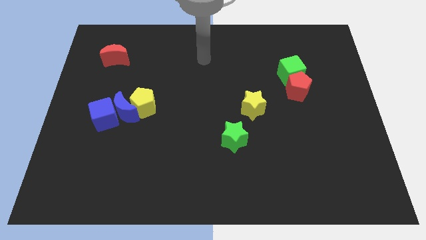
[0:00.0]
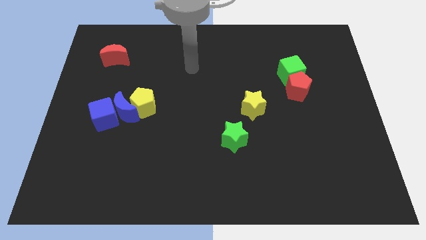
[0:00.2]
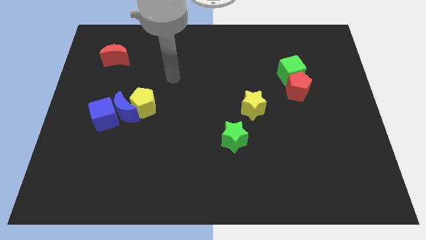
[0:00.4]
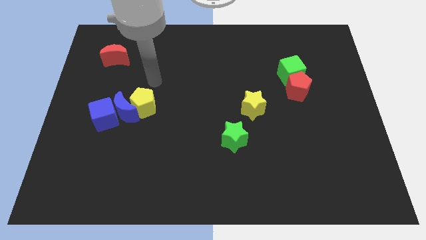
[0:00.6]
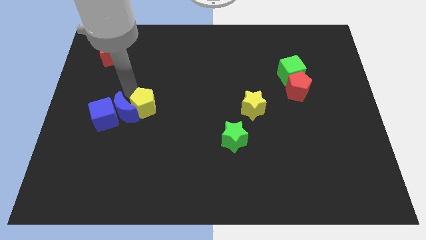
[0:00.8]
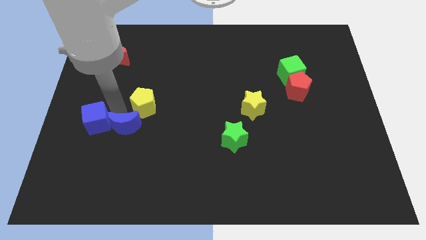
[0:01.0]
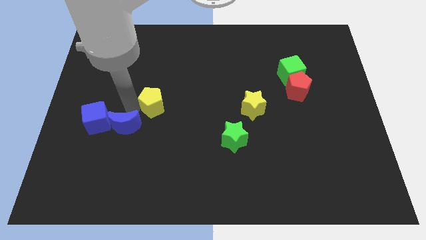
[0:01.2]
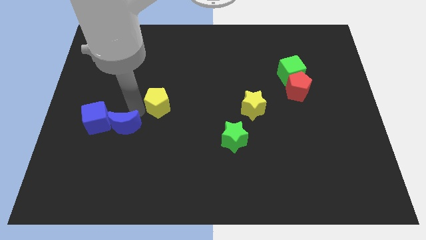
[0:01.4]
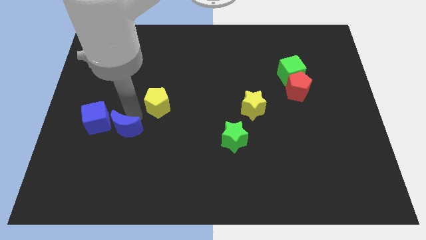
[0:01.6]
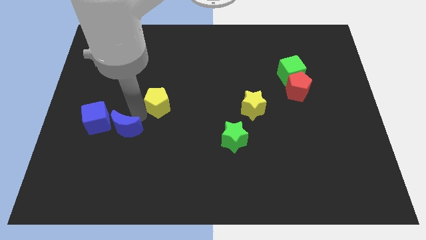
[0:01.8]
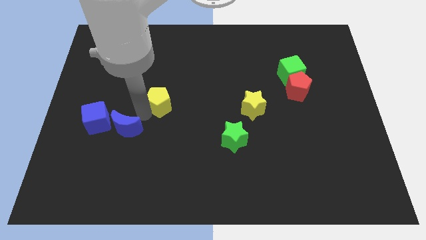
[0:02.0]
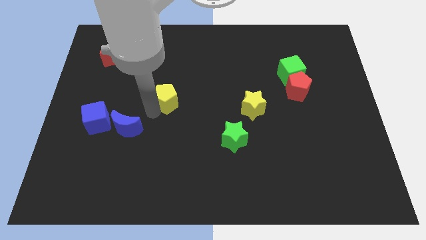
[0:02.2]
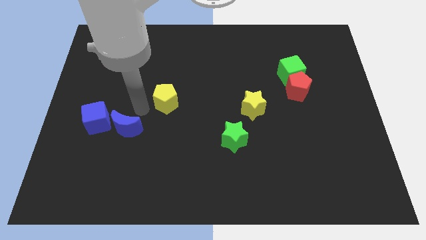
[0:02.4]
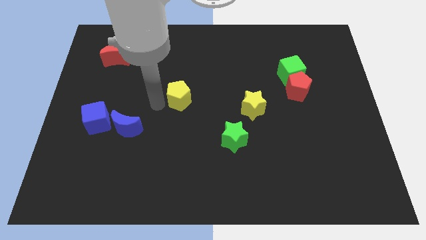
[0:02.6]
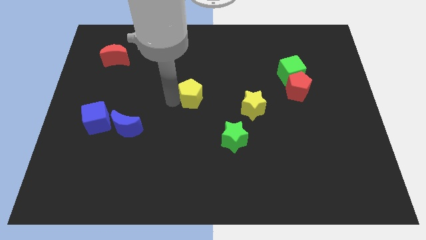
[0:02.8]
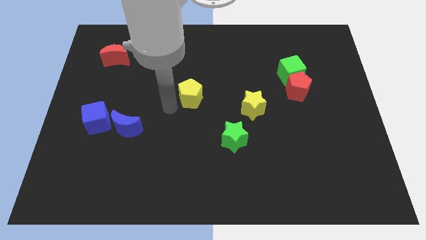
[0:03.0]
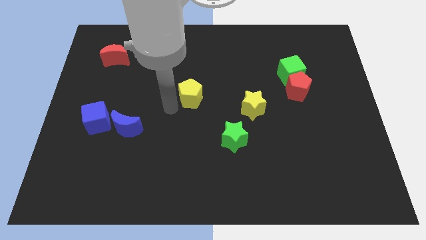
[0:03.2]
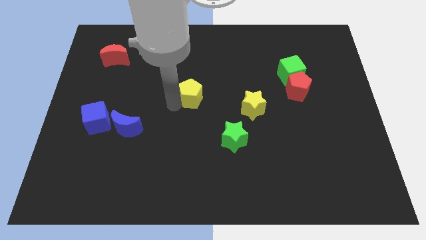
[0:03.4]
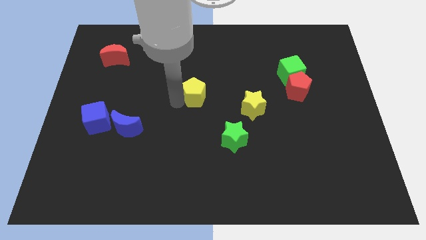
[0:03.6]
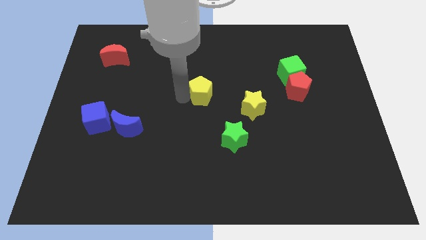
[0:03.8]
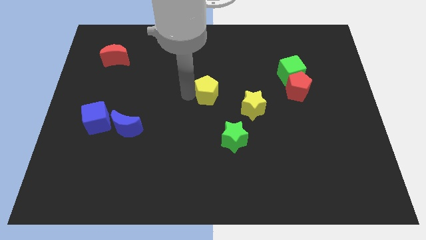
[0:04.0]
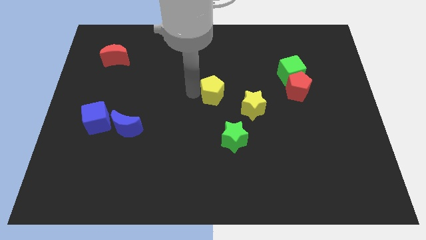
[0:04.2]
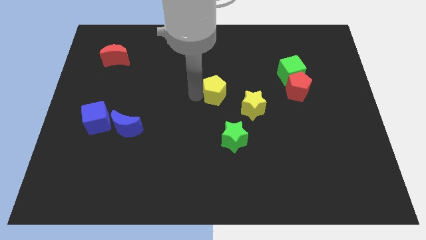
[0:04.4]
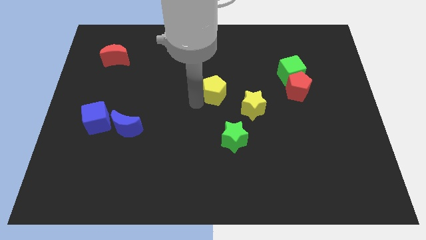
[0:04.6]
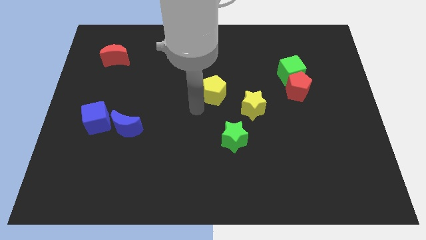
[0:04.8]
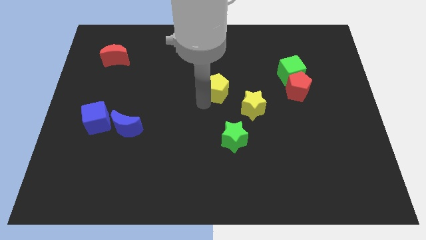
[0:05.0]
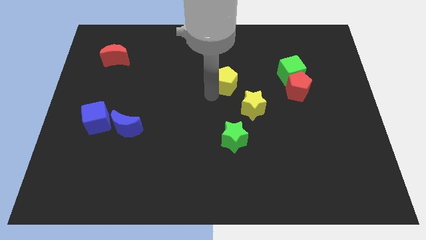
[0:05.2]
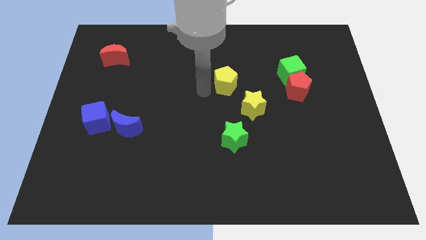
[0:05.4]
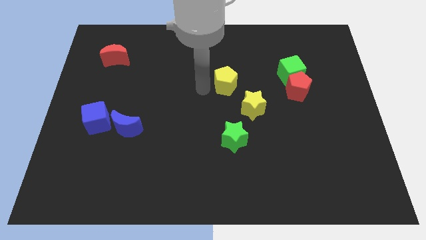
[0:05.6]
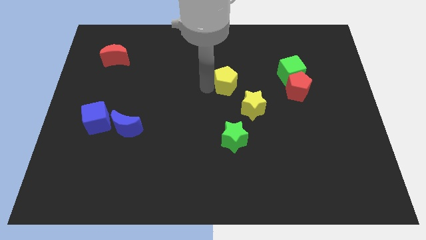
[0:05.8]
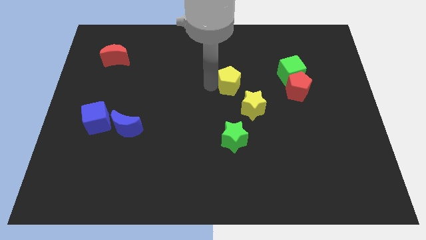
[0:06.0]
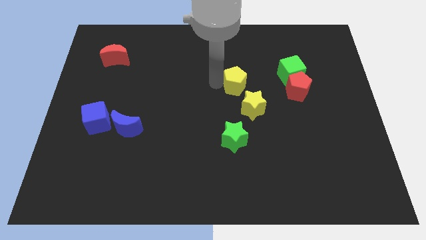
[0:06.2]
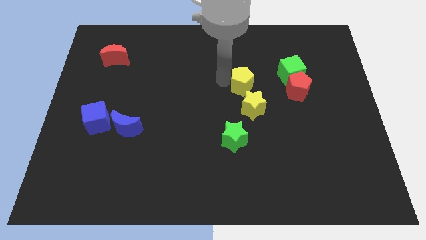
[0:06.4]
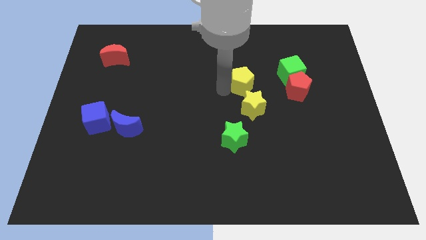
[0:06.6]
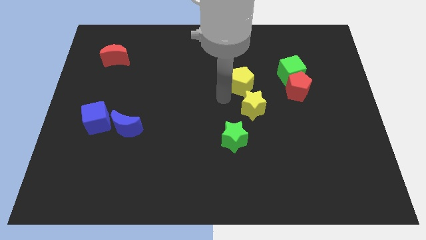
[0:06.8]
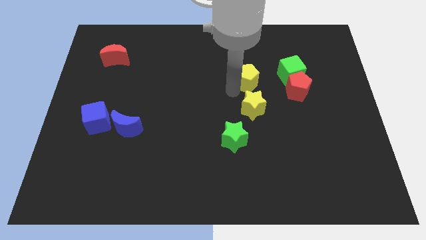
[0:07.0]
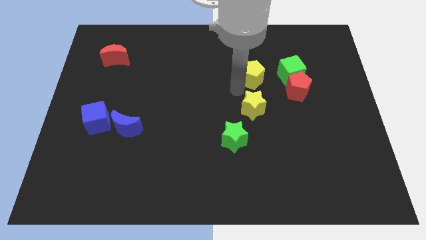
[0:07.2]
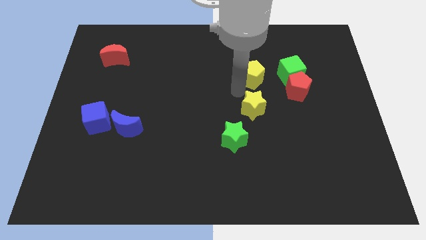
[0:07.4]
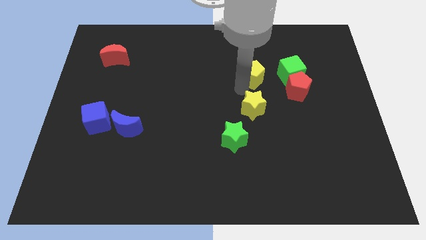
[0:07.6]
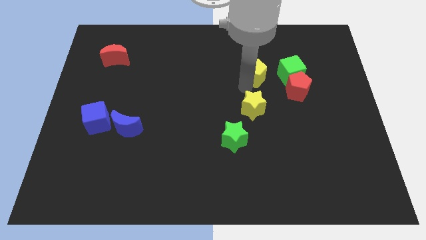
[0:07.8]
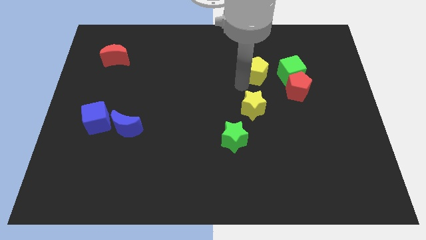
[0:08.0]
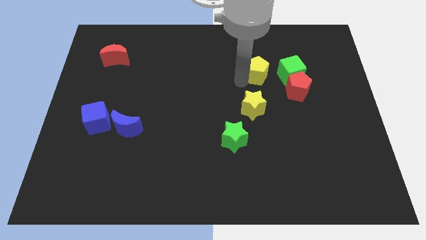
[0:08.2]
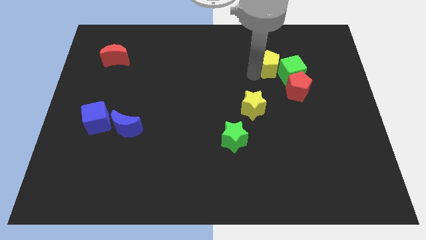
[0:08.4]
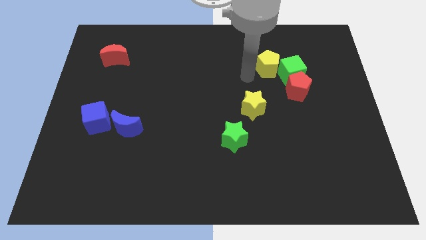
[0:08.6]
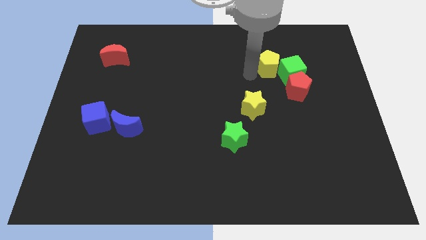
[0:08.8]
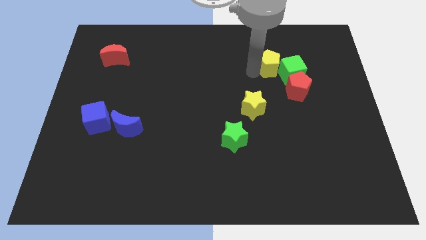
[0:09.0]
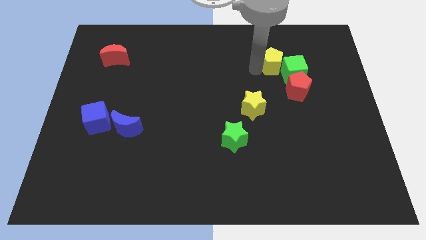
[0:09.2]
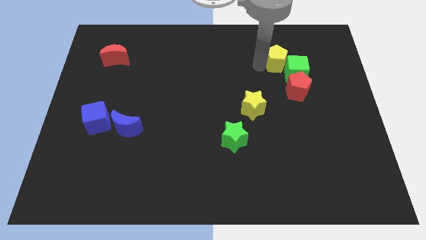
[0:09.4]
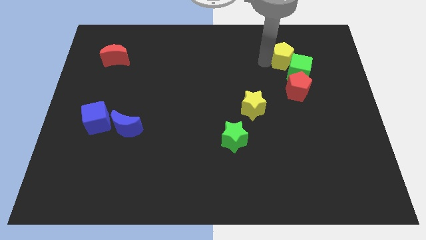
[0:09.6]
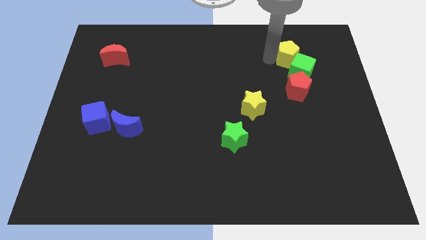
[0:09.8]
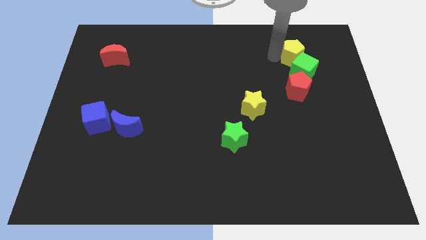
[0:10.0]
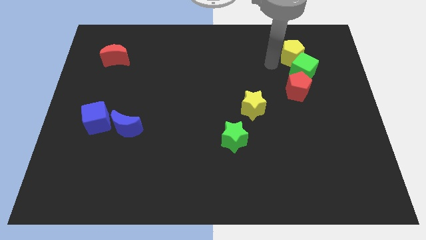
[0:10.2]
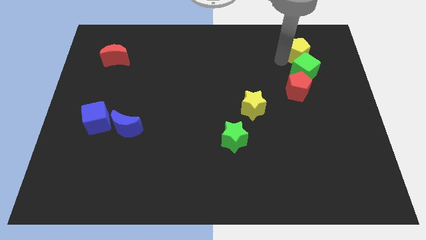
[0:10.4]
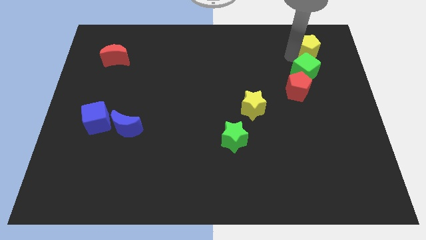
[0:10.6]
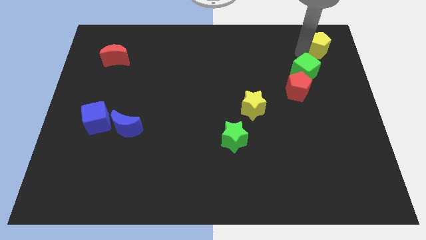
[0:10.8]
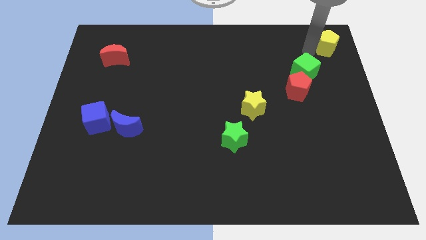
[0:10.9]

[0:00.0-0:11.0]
slide the yellow pentagon to the top right

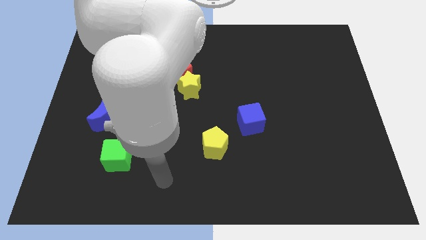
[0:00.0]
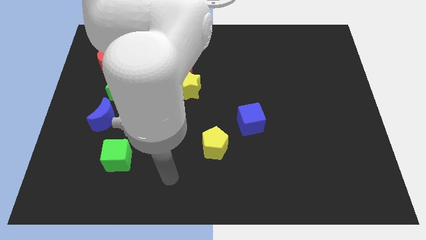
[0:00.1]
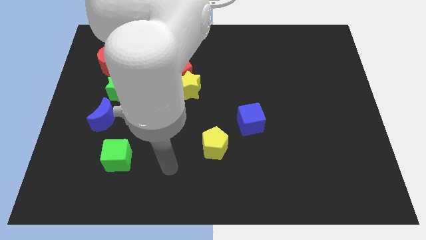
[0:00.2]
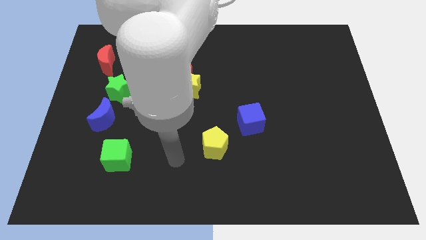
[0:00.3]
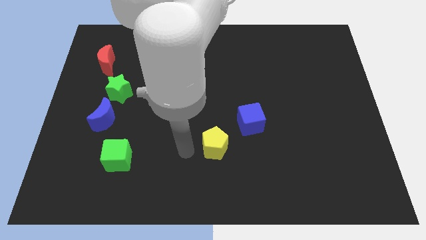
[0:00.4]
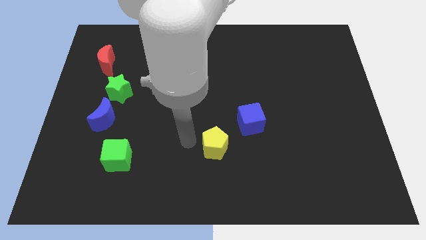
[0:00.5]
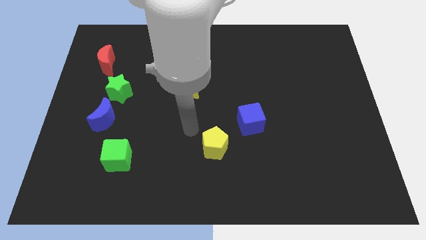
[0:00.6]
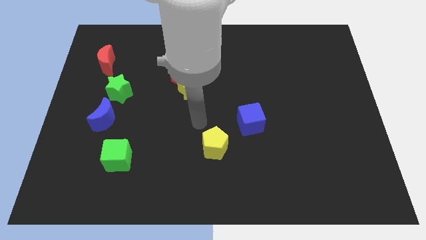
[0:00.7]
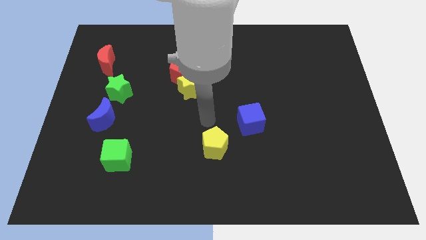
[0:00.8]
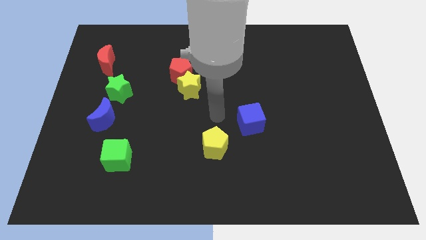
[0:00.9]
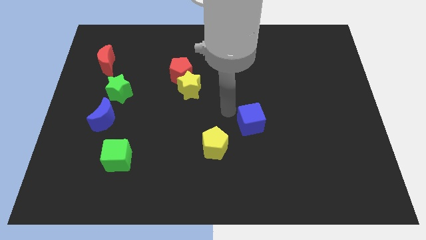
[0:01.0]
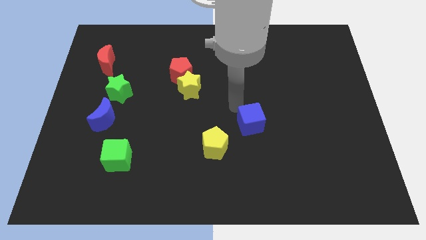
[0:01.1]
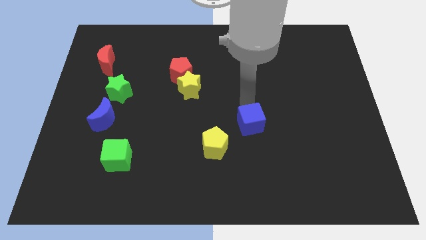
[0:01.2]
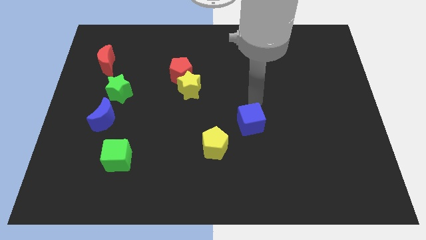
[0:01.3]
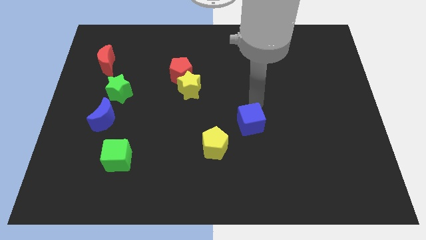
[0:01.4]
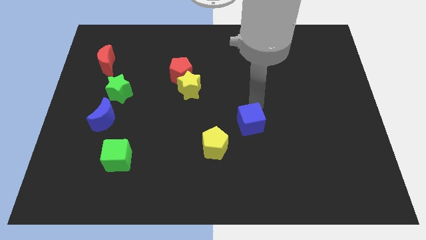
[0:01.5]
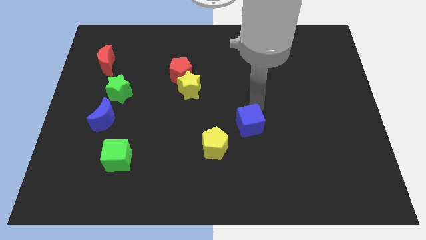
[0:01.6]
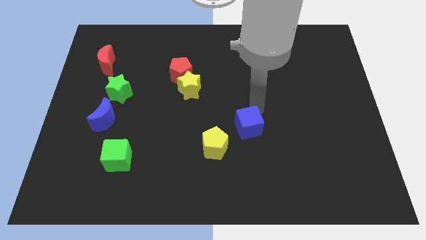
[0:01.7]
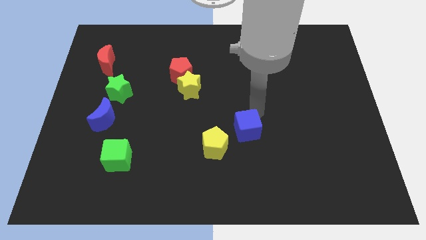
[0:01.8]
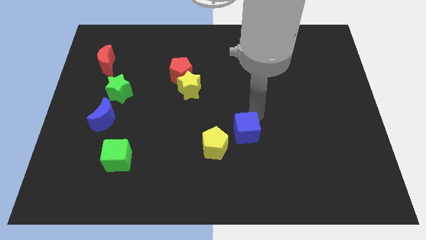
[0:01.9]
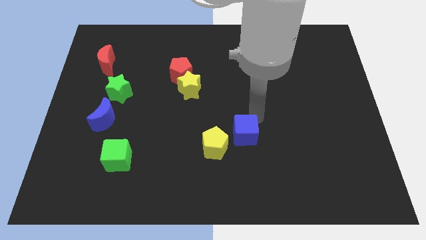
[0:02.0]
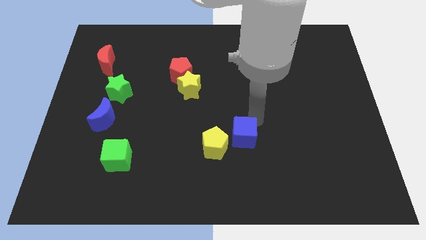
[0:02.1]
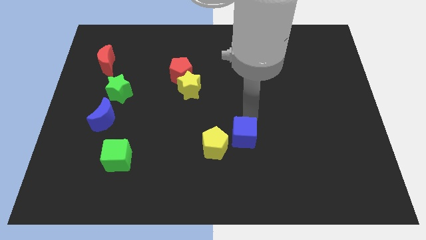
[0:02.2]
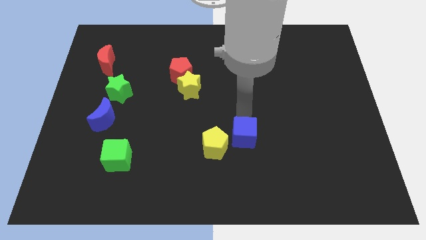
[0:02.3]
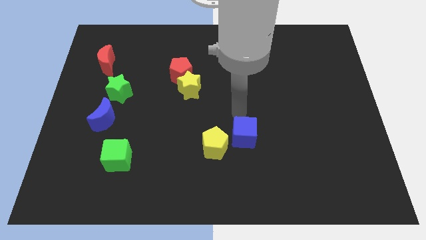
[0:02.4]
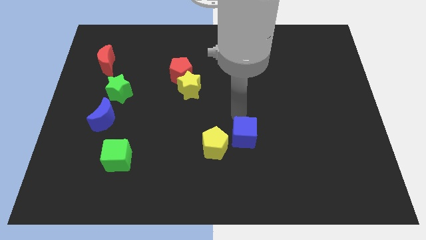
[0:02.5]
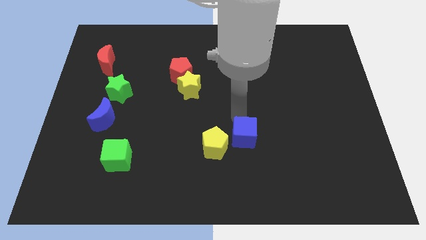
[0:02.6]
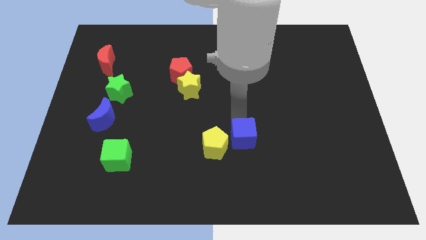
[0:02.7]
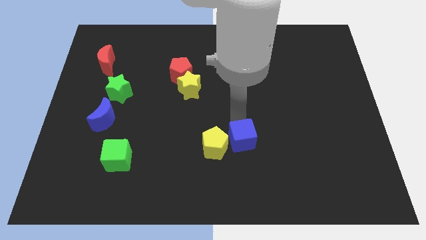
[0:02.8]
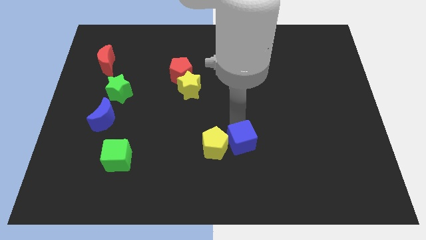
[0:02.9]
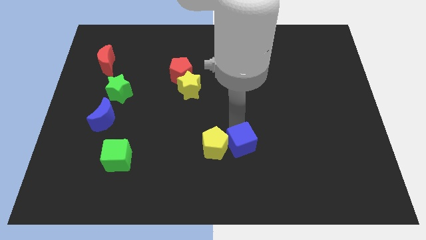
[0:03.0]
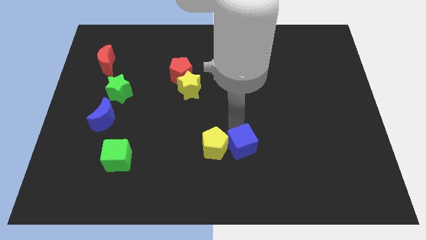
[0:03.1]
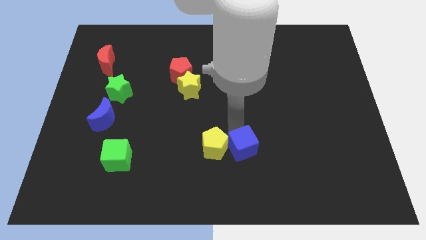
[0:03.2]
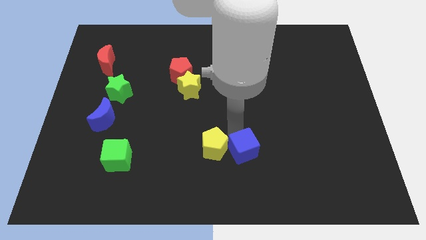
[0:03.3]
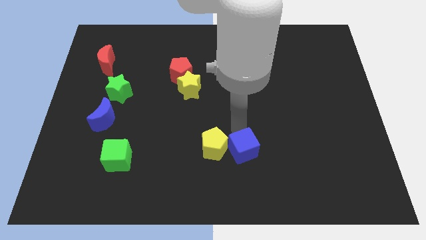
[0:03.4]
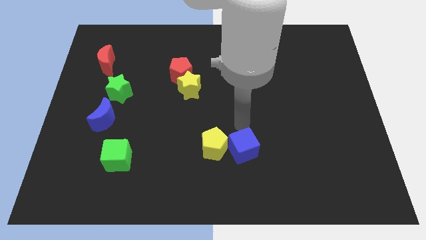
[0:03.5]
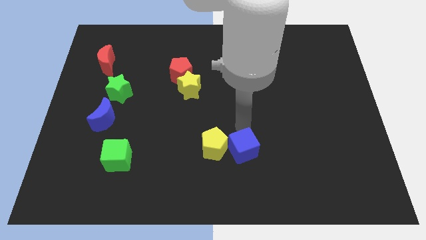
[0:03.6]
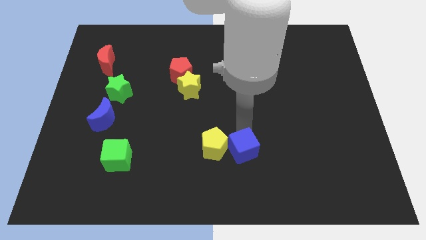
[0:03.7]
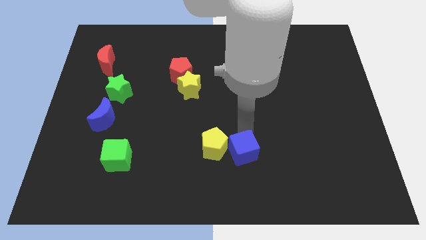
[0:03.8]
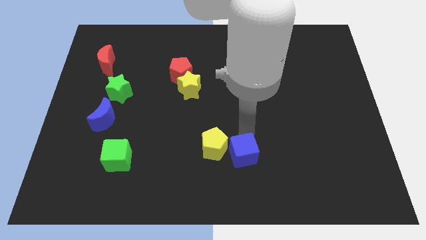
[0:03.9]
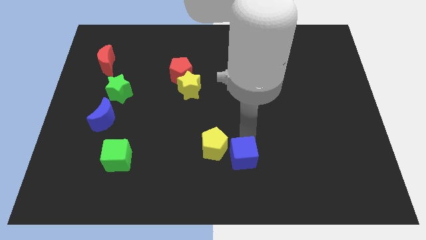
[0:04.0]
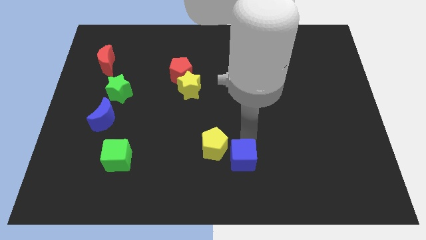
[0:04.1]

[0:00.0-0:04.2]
push the blue cube to the bottom side
